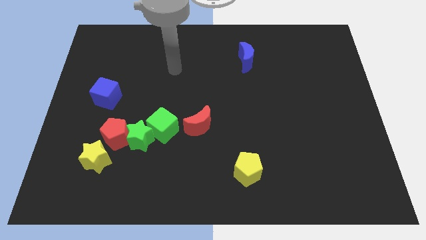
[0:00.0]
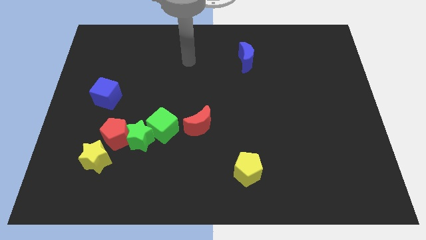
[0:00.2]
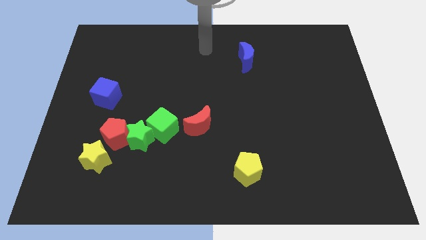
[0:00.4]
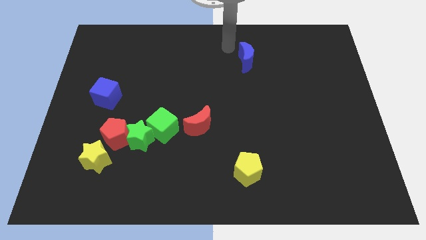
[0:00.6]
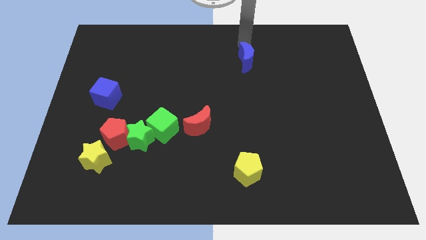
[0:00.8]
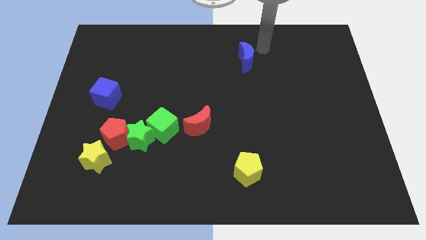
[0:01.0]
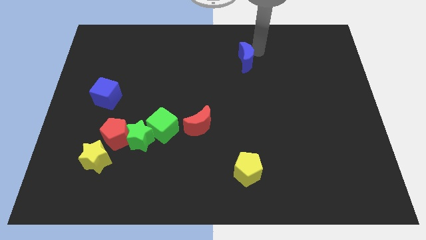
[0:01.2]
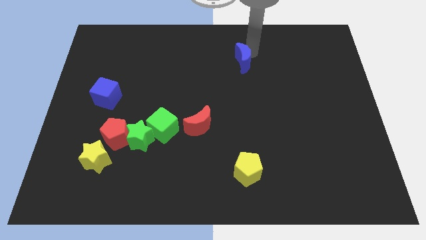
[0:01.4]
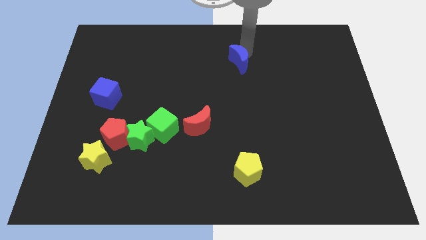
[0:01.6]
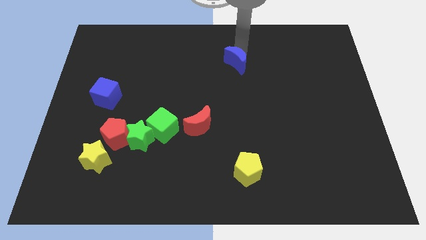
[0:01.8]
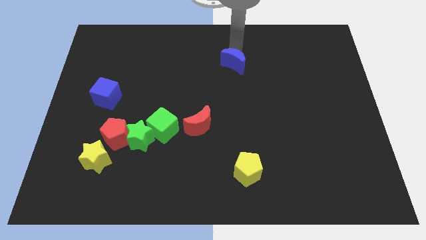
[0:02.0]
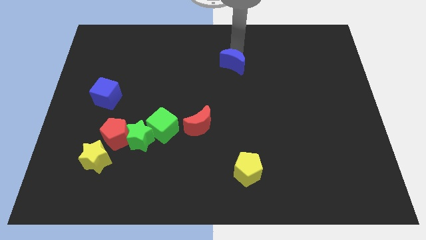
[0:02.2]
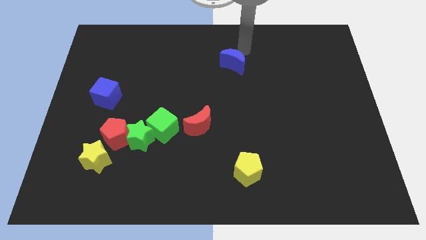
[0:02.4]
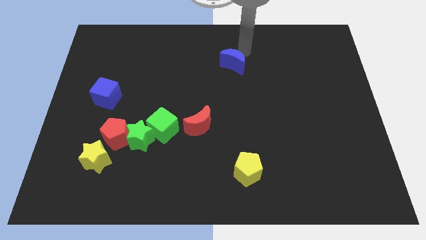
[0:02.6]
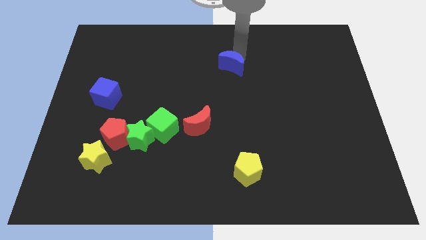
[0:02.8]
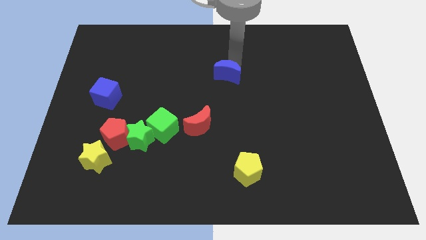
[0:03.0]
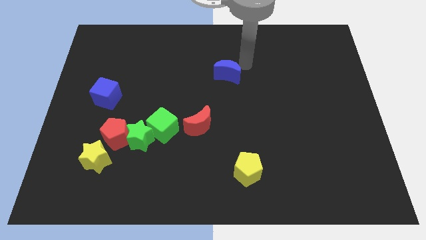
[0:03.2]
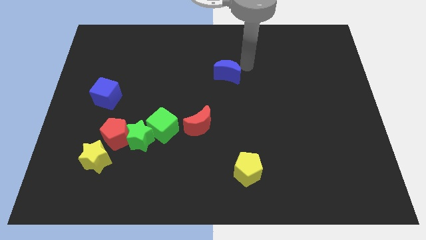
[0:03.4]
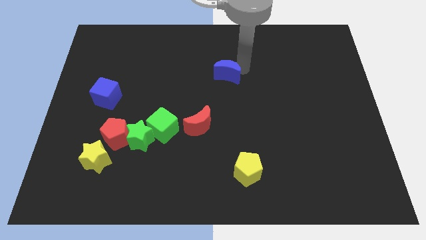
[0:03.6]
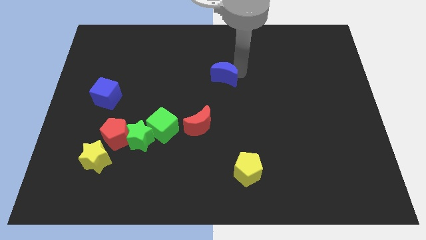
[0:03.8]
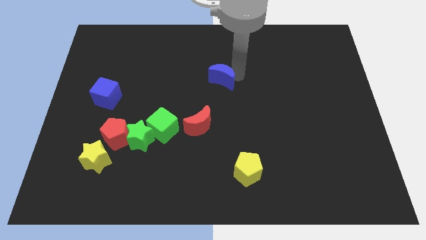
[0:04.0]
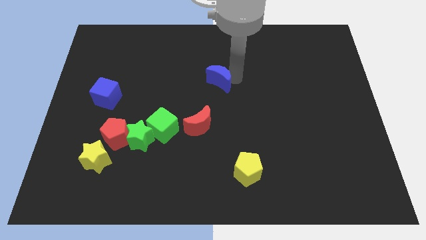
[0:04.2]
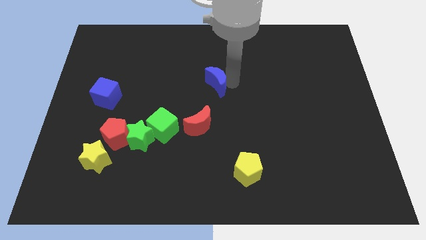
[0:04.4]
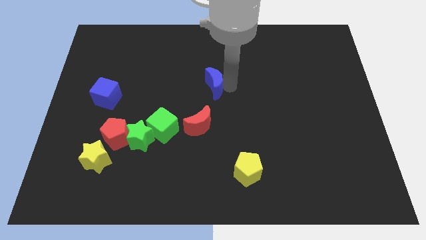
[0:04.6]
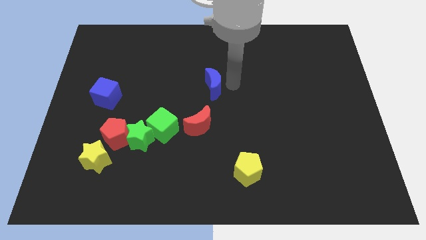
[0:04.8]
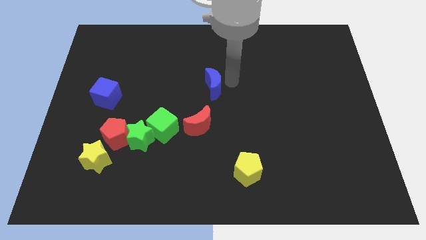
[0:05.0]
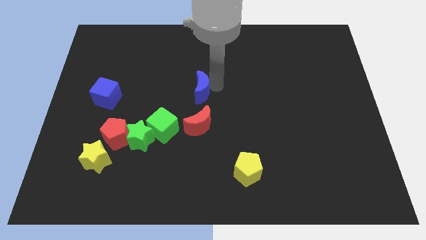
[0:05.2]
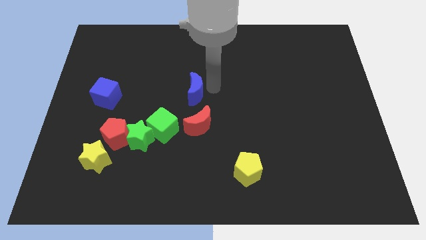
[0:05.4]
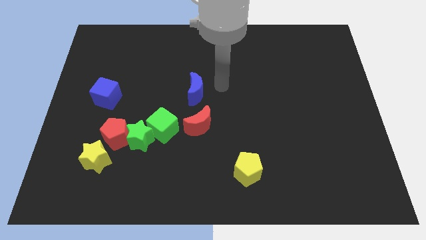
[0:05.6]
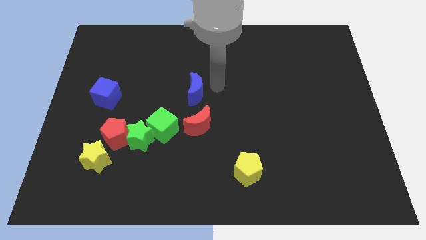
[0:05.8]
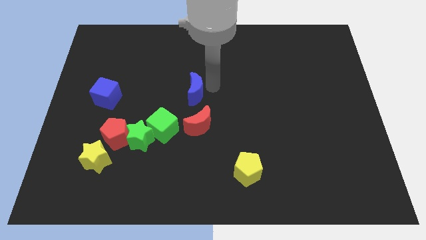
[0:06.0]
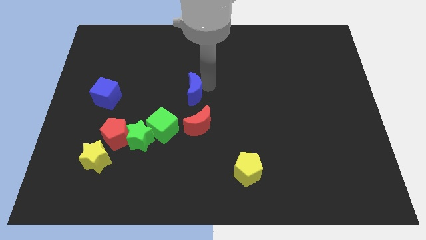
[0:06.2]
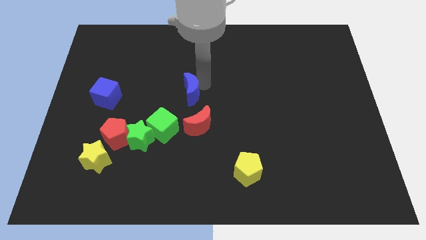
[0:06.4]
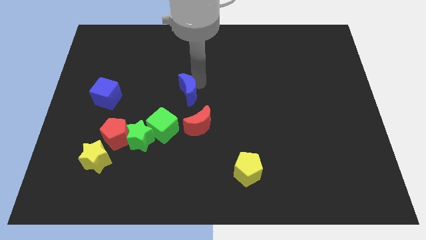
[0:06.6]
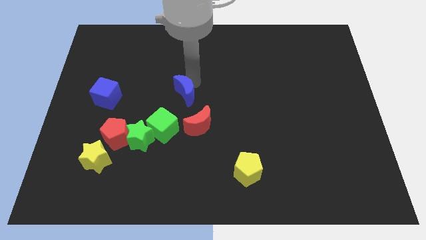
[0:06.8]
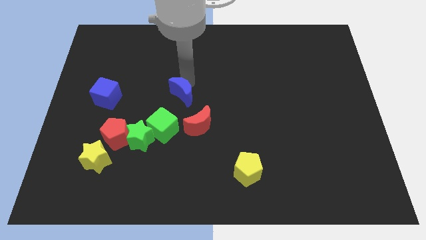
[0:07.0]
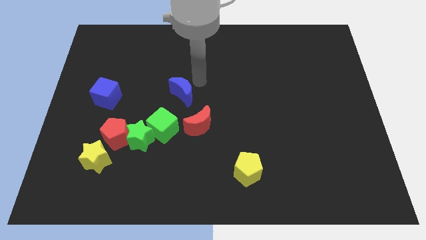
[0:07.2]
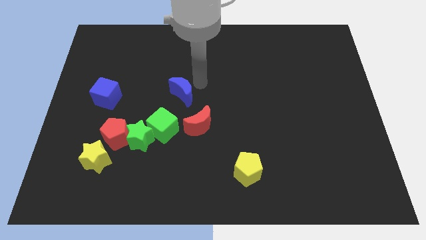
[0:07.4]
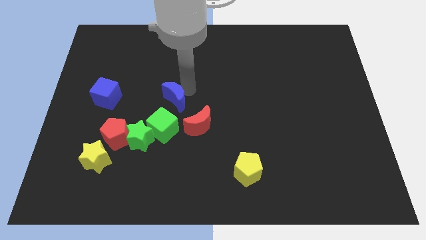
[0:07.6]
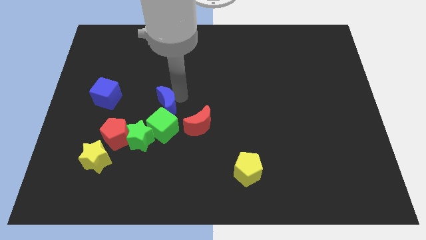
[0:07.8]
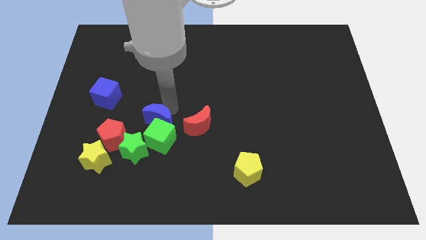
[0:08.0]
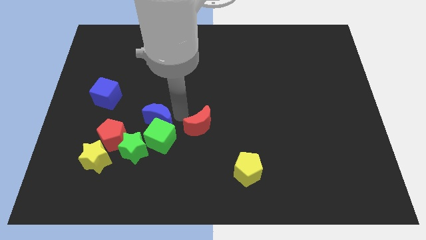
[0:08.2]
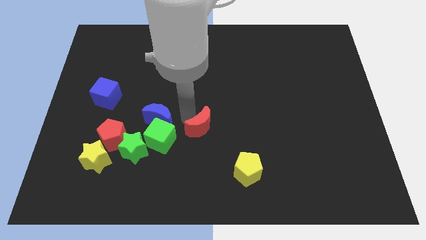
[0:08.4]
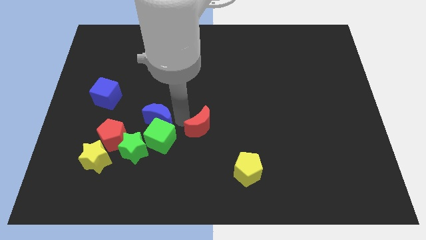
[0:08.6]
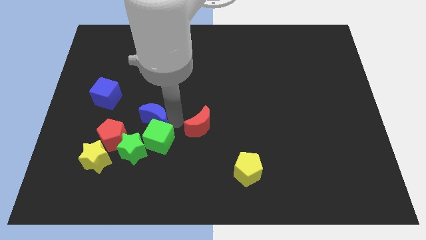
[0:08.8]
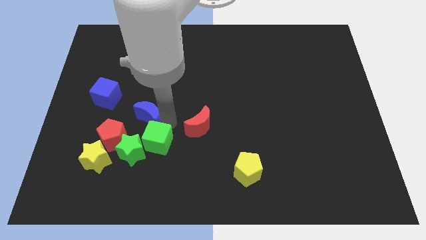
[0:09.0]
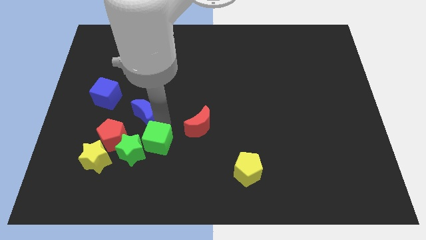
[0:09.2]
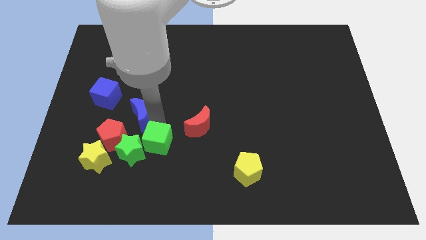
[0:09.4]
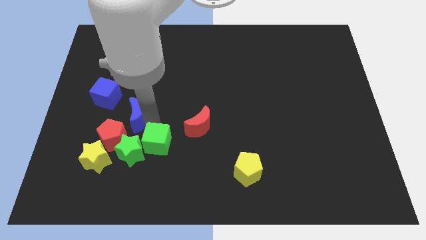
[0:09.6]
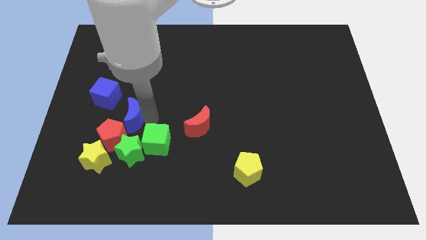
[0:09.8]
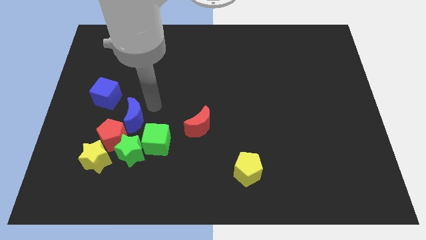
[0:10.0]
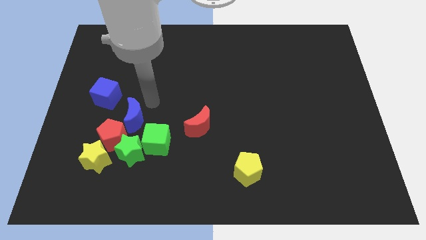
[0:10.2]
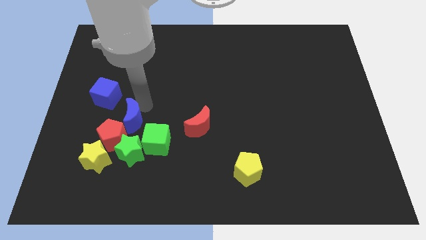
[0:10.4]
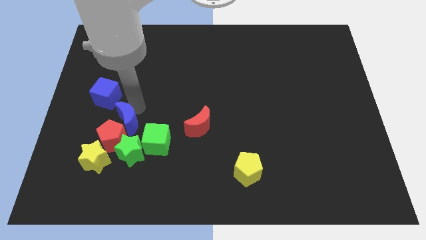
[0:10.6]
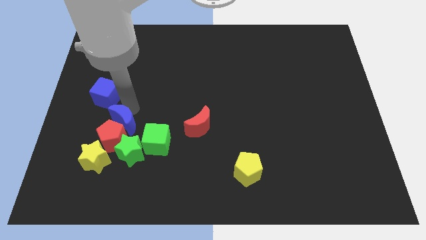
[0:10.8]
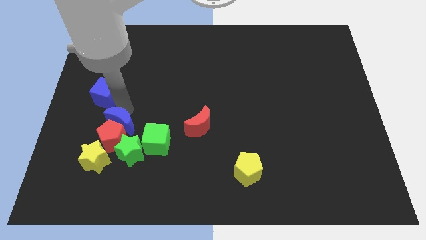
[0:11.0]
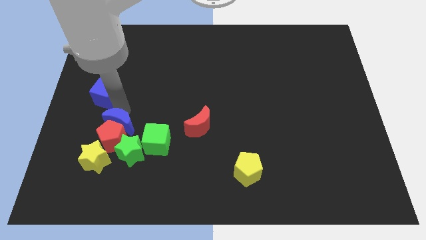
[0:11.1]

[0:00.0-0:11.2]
put the blue moon left of the green cube

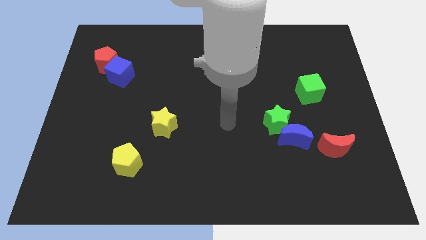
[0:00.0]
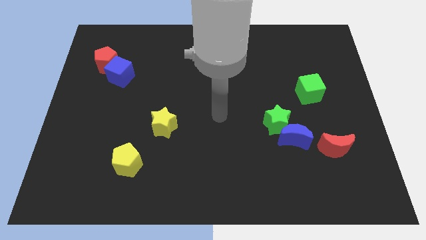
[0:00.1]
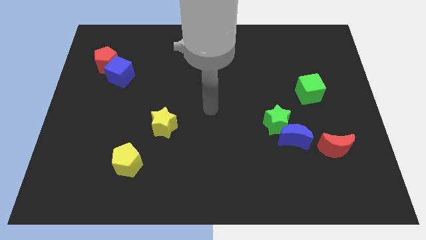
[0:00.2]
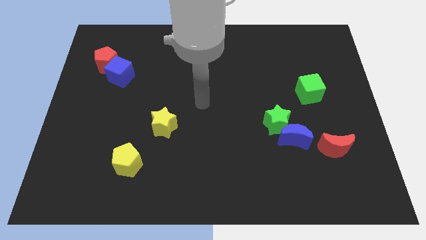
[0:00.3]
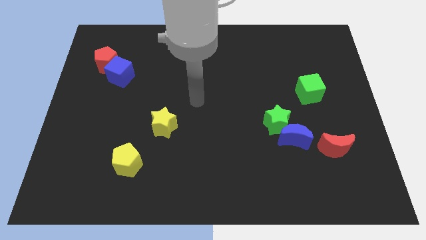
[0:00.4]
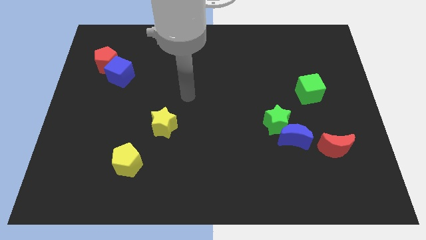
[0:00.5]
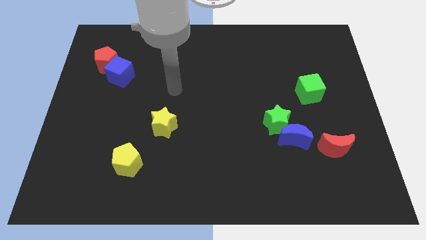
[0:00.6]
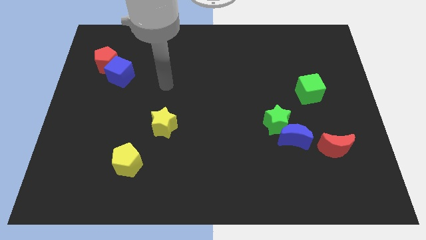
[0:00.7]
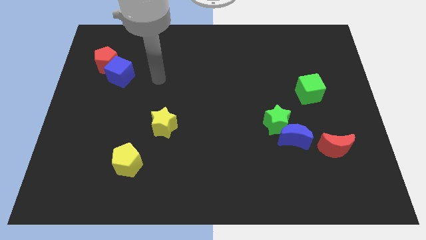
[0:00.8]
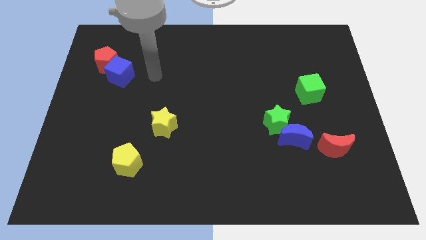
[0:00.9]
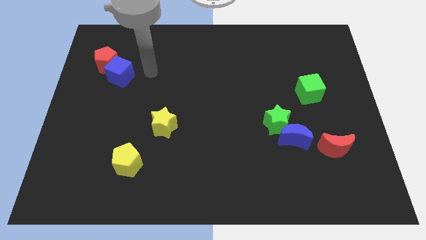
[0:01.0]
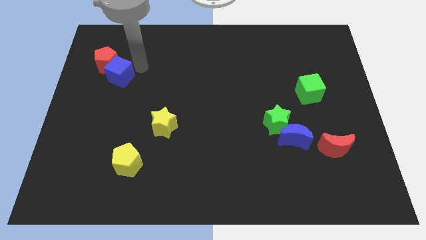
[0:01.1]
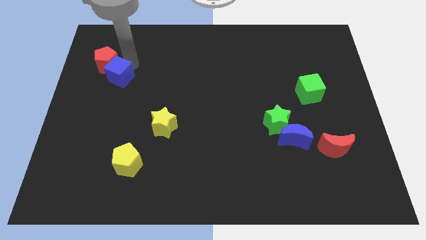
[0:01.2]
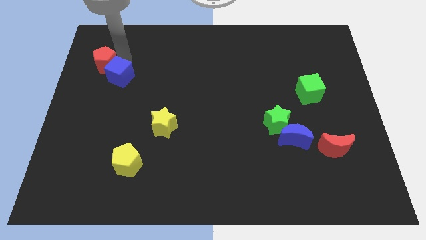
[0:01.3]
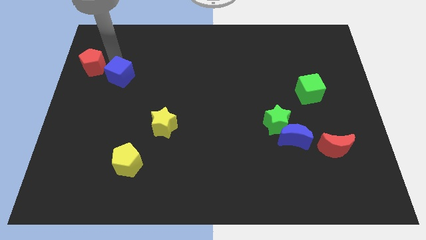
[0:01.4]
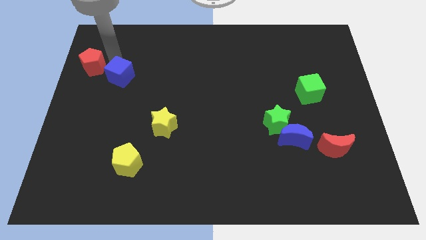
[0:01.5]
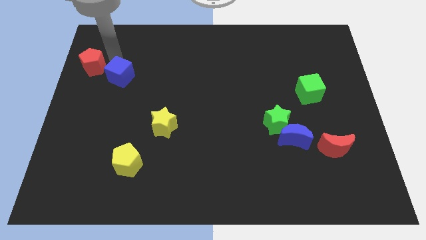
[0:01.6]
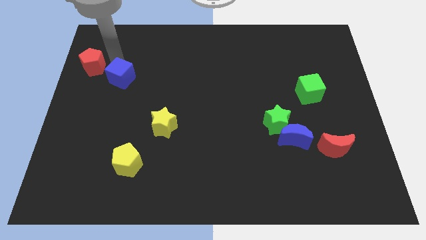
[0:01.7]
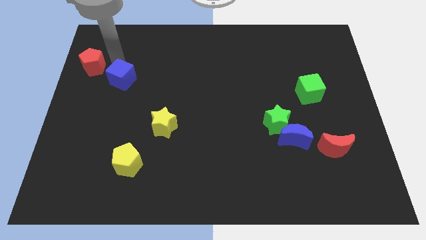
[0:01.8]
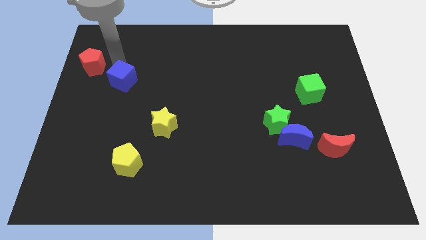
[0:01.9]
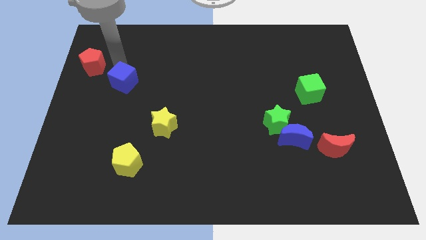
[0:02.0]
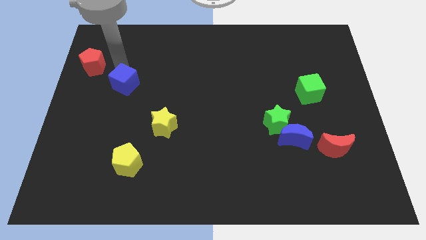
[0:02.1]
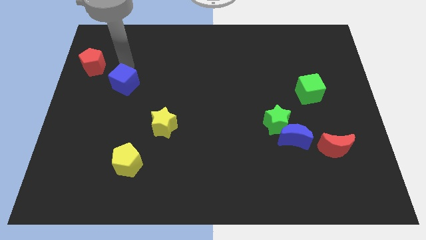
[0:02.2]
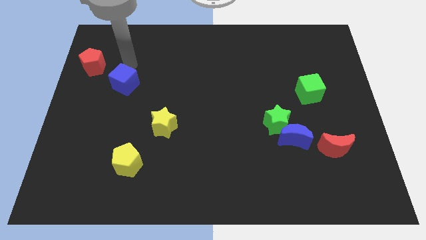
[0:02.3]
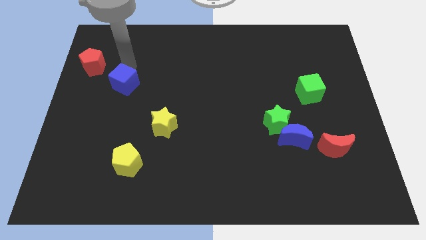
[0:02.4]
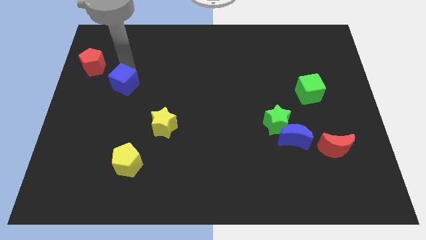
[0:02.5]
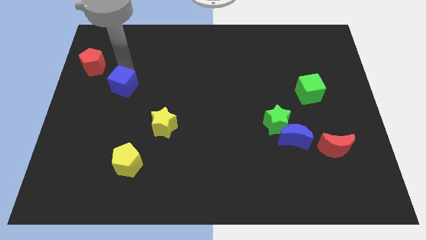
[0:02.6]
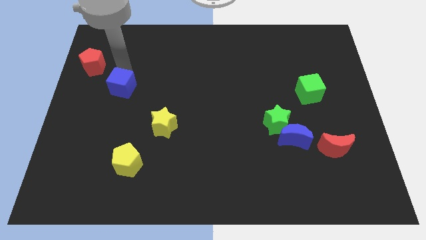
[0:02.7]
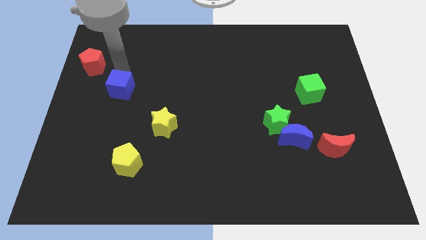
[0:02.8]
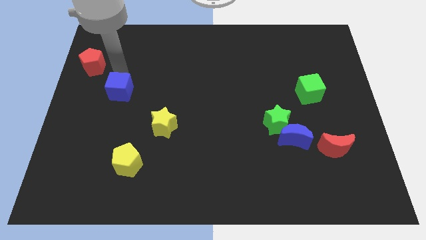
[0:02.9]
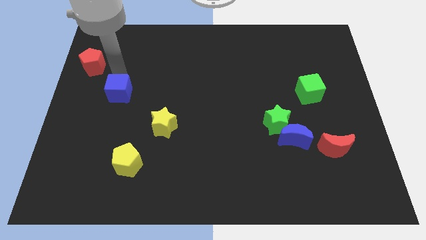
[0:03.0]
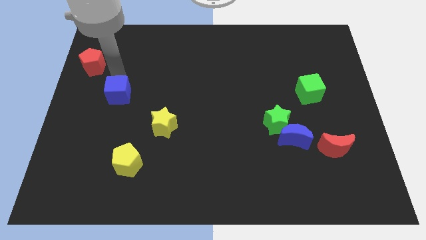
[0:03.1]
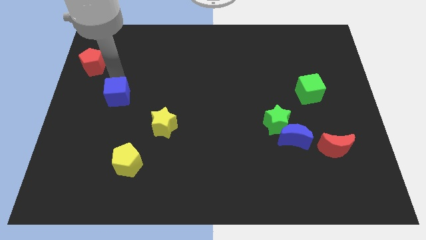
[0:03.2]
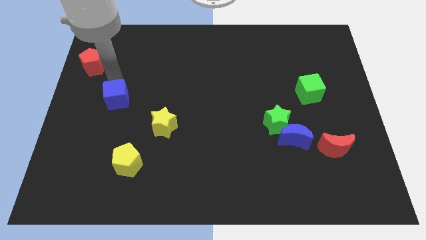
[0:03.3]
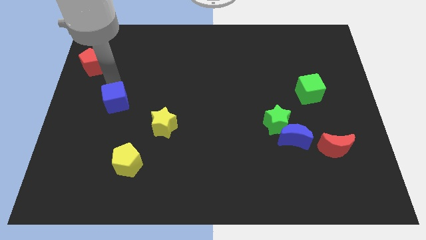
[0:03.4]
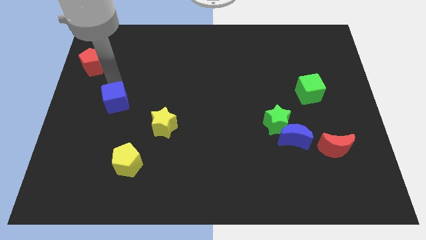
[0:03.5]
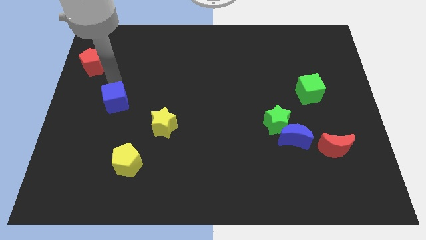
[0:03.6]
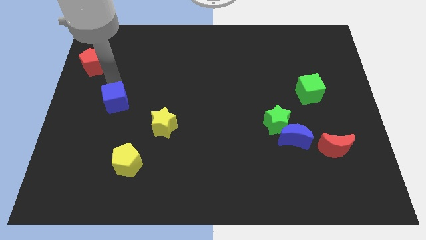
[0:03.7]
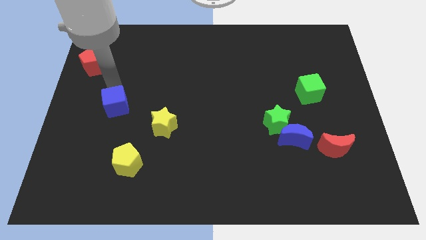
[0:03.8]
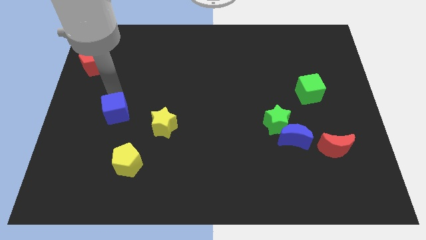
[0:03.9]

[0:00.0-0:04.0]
put the blue cube just left of the yellow star
